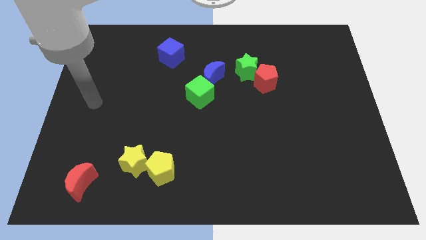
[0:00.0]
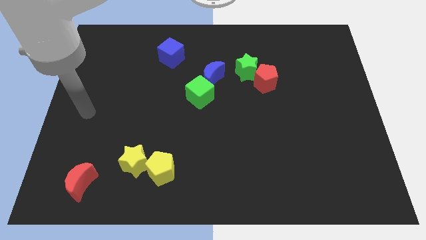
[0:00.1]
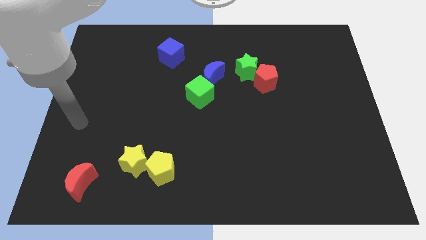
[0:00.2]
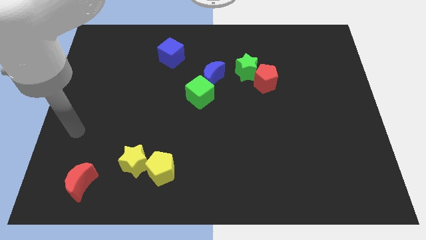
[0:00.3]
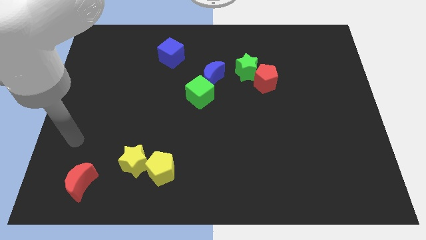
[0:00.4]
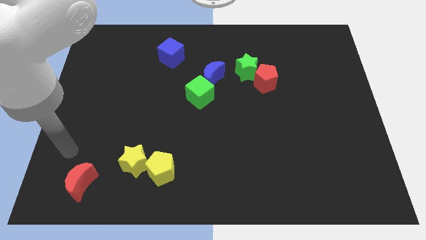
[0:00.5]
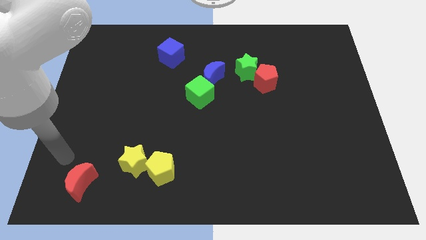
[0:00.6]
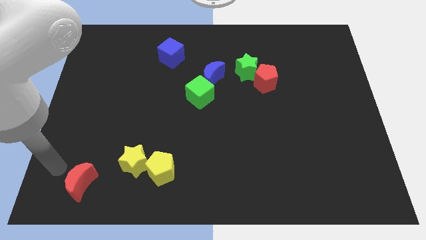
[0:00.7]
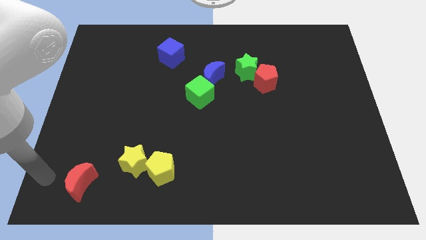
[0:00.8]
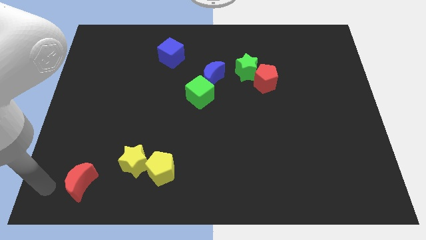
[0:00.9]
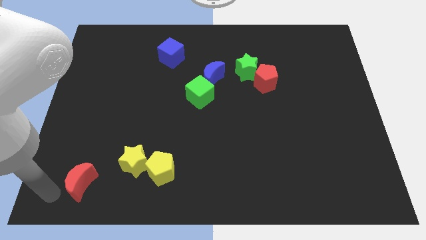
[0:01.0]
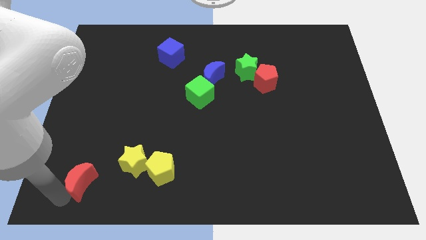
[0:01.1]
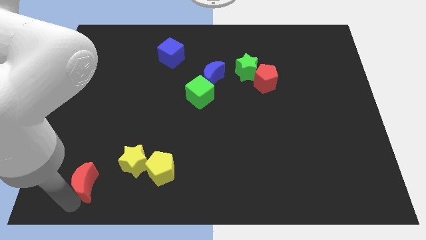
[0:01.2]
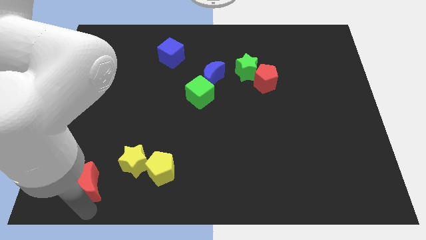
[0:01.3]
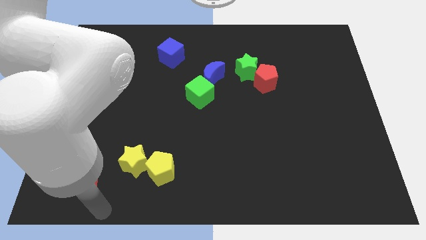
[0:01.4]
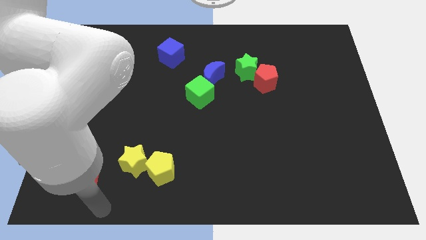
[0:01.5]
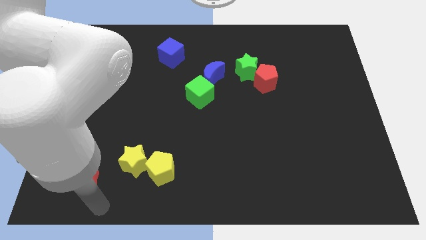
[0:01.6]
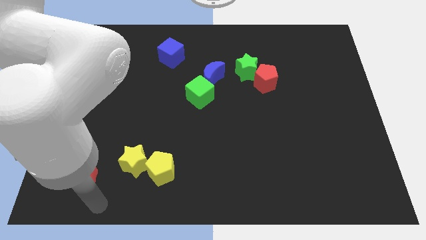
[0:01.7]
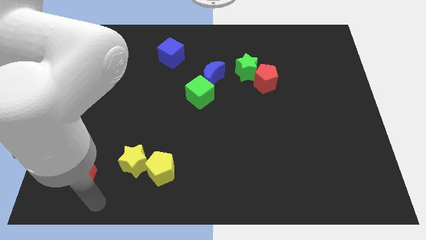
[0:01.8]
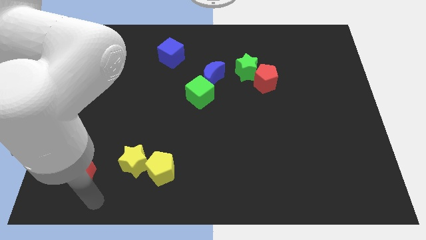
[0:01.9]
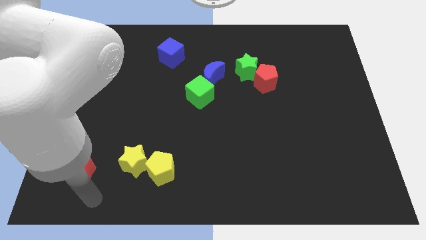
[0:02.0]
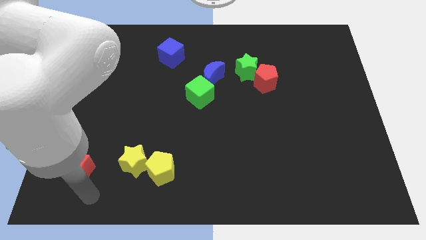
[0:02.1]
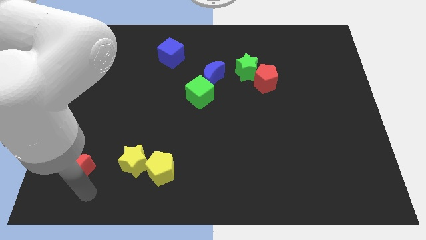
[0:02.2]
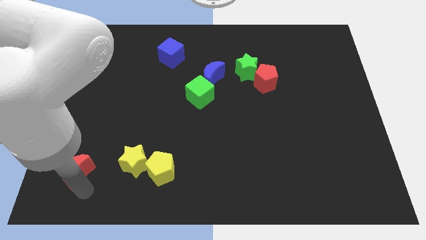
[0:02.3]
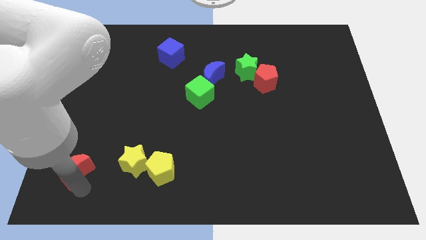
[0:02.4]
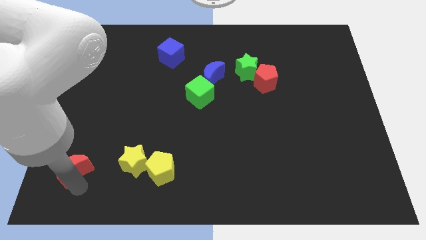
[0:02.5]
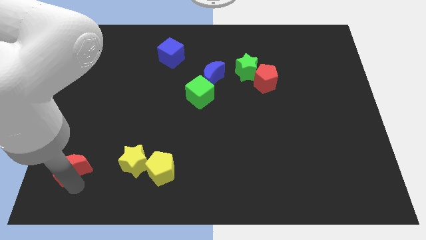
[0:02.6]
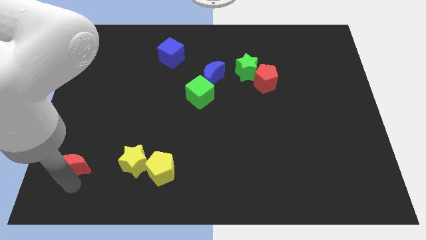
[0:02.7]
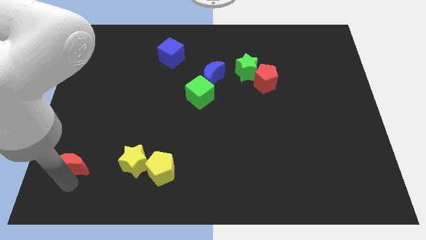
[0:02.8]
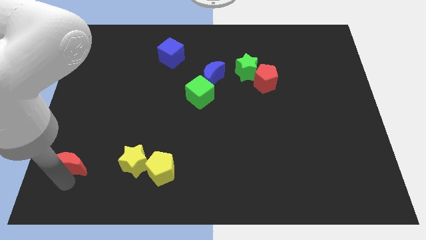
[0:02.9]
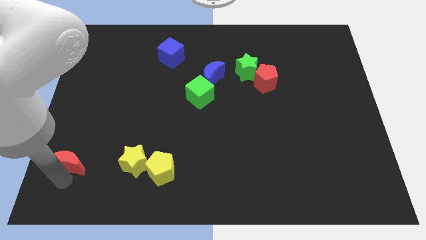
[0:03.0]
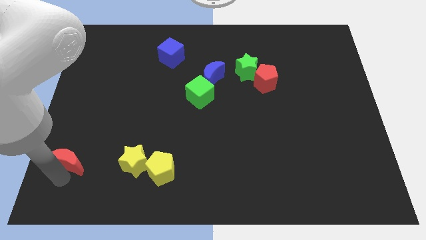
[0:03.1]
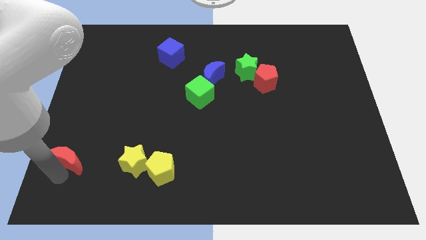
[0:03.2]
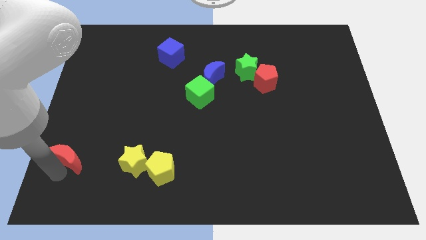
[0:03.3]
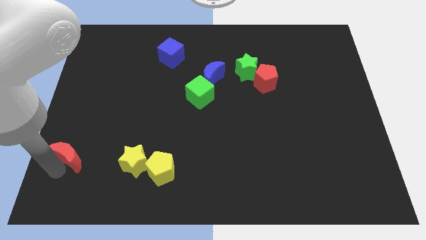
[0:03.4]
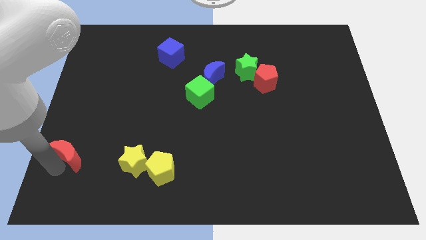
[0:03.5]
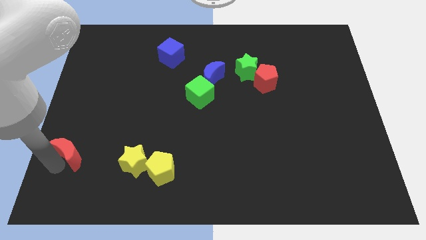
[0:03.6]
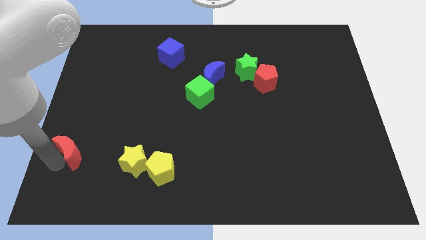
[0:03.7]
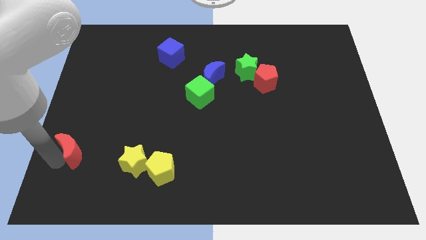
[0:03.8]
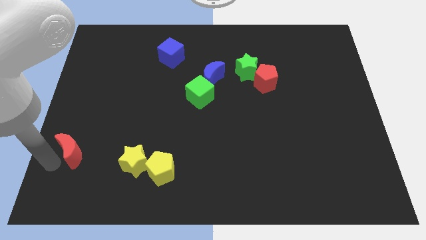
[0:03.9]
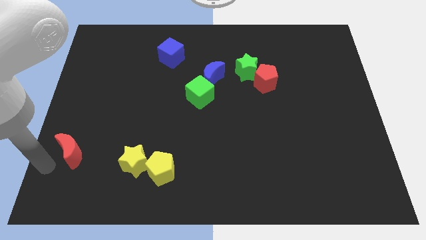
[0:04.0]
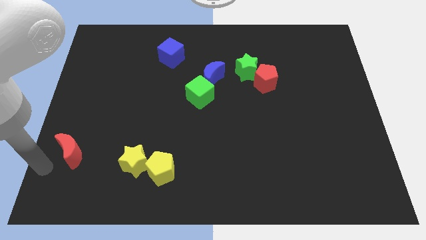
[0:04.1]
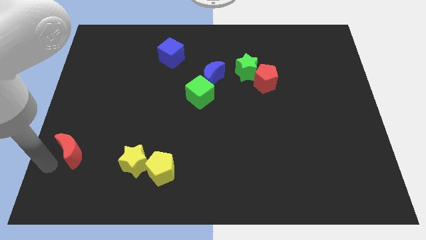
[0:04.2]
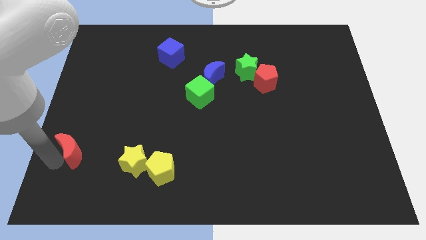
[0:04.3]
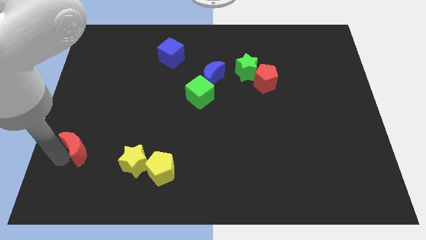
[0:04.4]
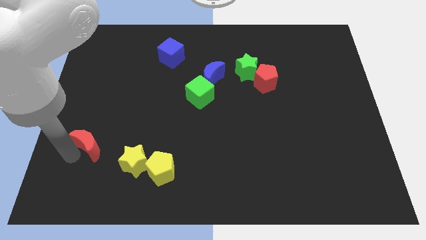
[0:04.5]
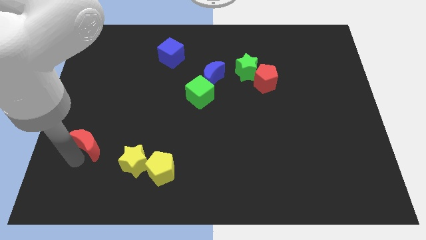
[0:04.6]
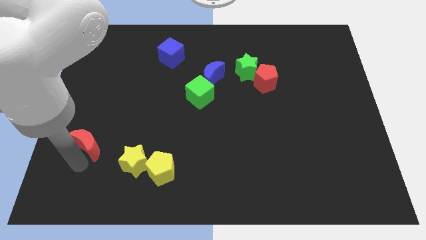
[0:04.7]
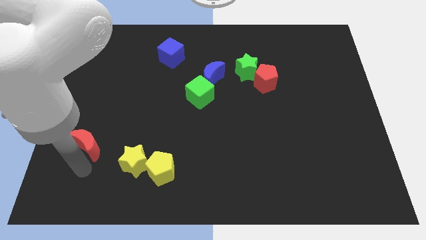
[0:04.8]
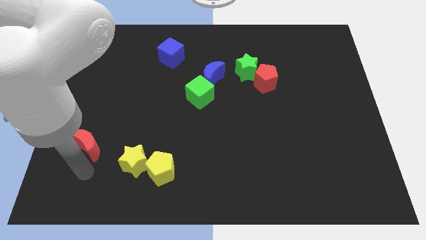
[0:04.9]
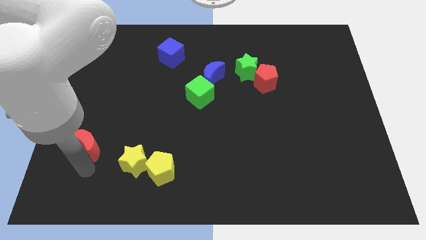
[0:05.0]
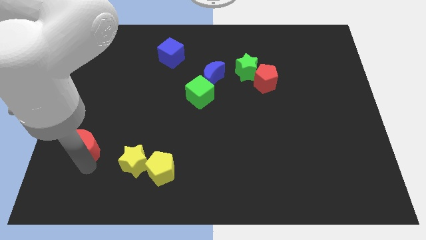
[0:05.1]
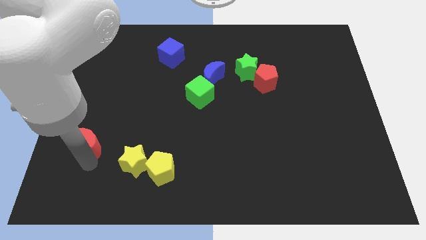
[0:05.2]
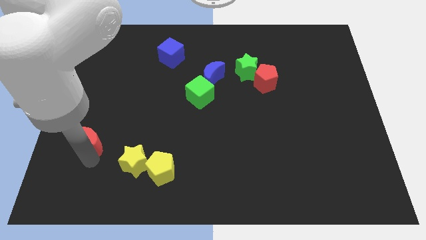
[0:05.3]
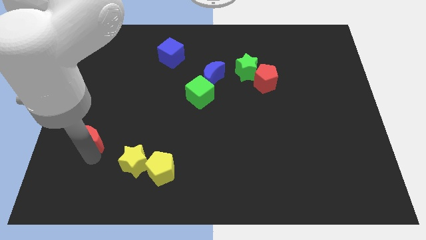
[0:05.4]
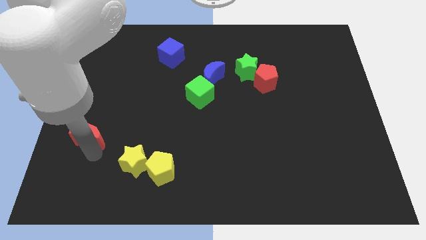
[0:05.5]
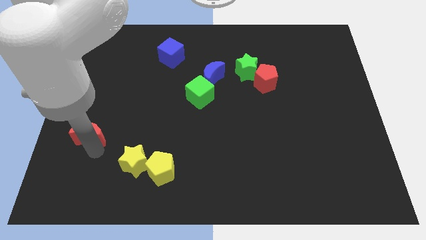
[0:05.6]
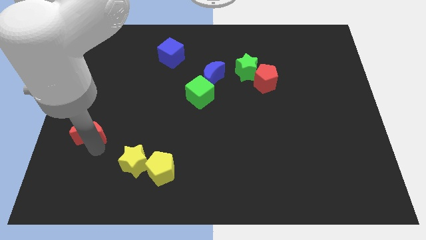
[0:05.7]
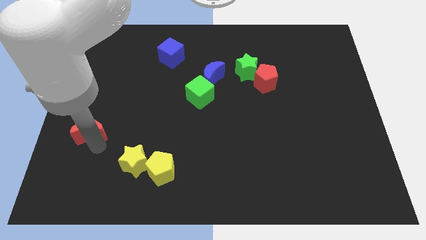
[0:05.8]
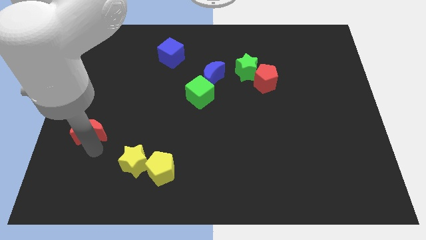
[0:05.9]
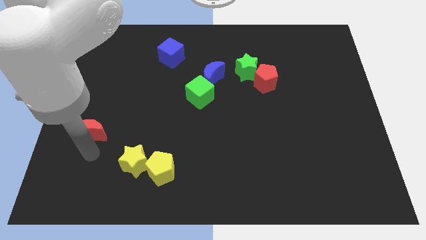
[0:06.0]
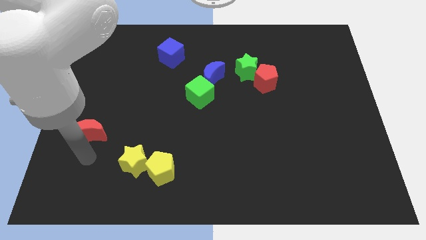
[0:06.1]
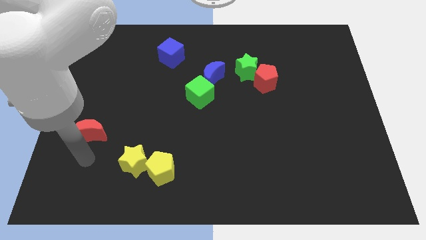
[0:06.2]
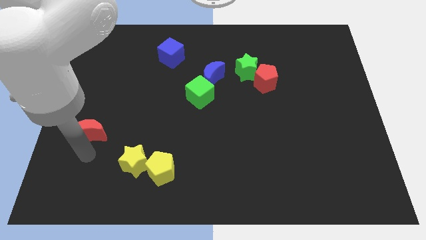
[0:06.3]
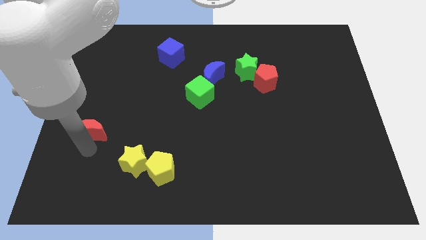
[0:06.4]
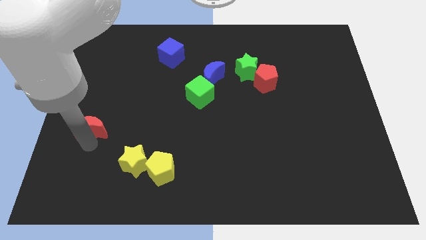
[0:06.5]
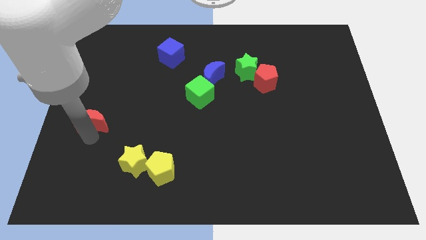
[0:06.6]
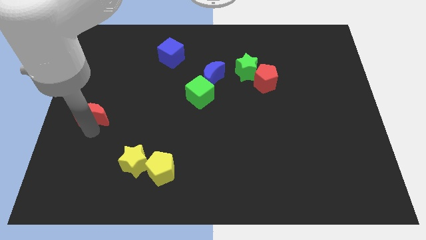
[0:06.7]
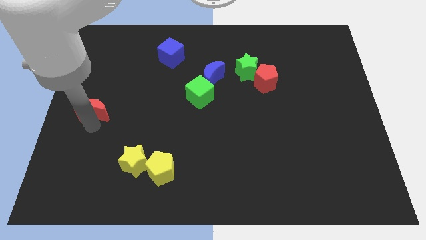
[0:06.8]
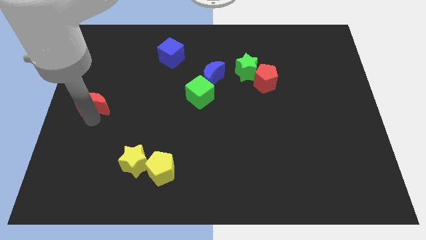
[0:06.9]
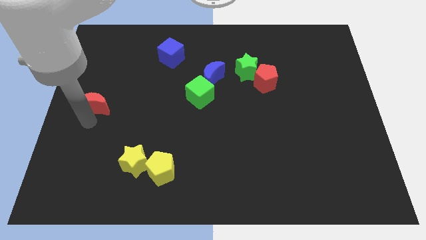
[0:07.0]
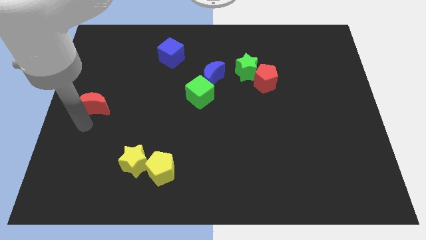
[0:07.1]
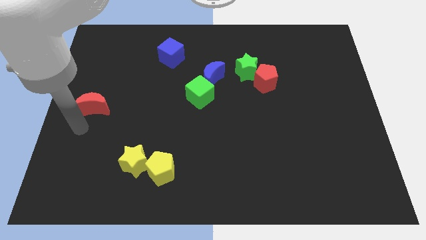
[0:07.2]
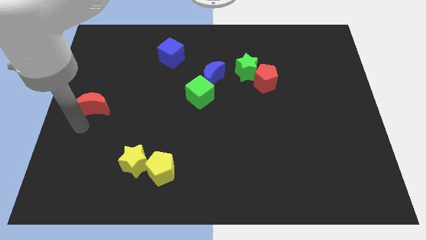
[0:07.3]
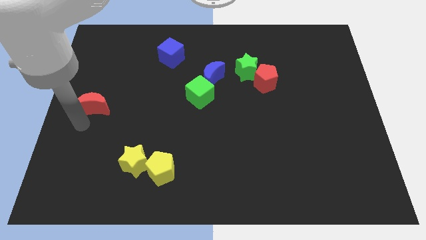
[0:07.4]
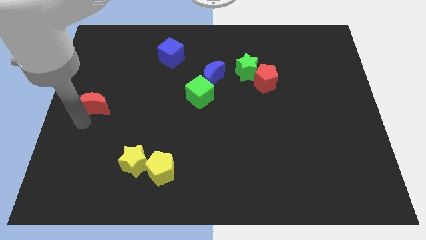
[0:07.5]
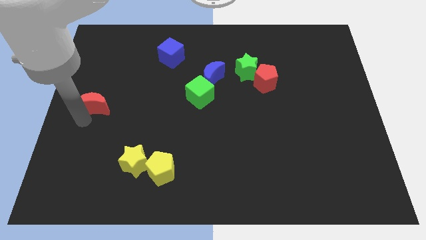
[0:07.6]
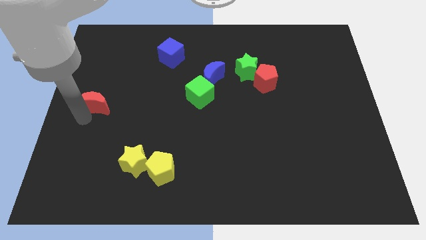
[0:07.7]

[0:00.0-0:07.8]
push the red moon upwards
